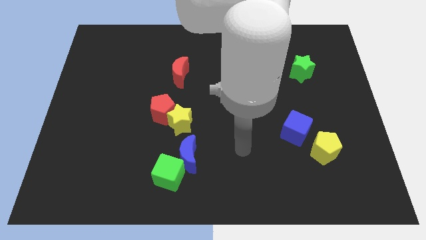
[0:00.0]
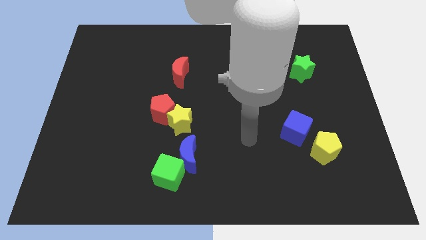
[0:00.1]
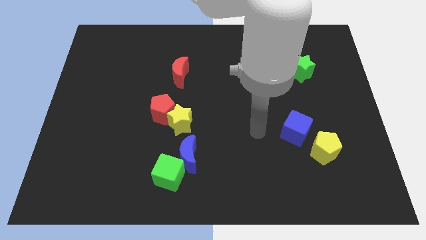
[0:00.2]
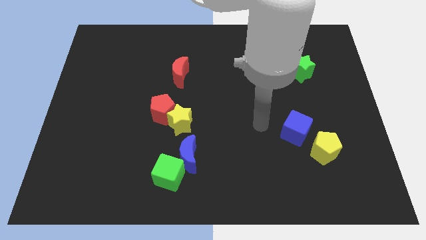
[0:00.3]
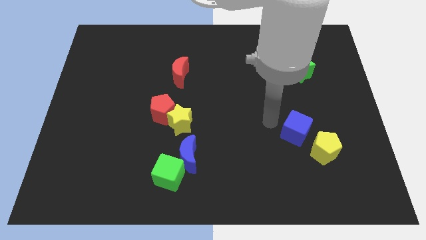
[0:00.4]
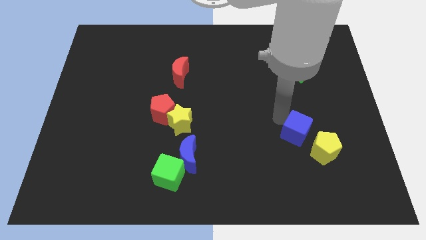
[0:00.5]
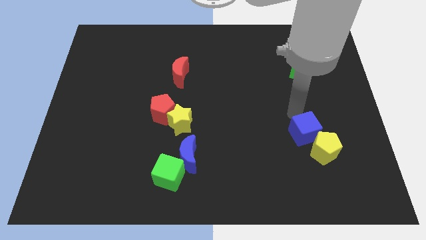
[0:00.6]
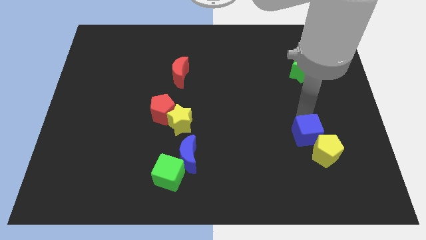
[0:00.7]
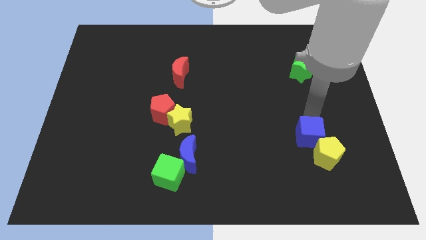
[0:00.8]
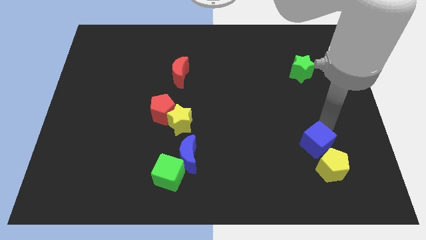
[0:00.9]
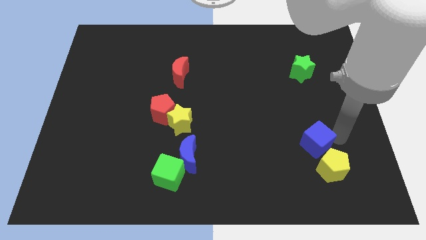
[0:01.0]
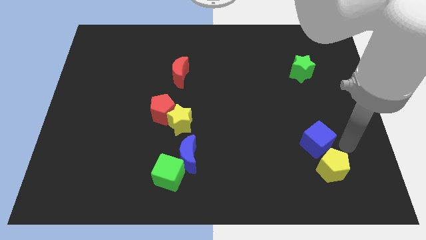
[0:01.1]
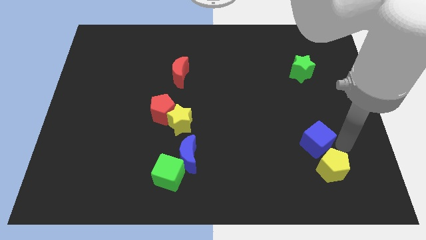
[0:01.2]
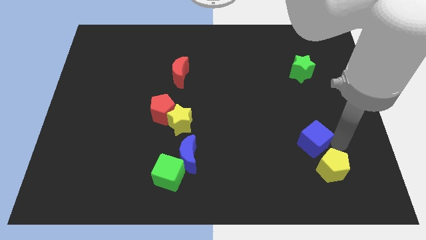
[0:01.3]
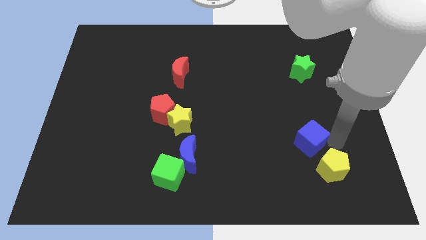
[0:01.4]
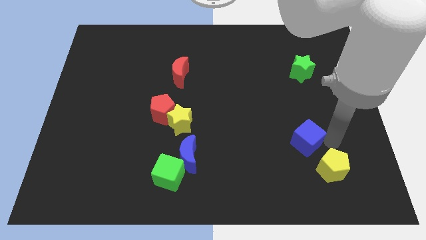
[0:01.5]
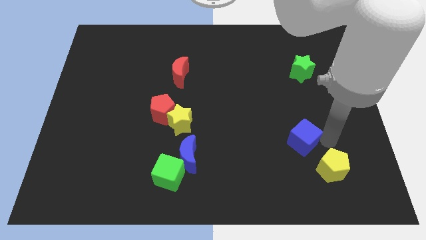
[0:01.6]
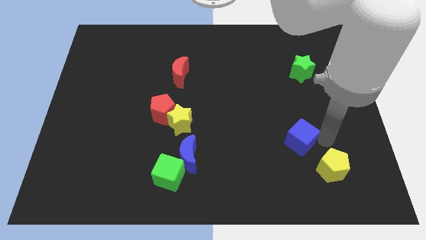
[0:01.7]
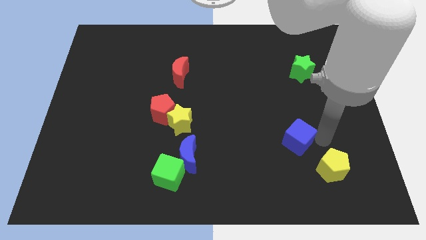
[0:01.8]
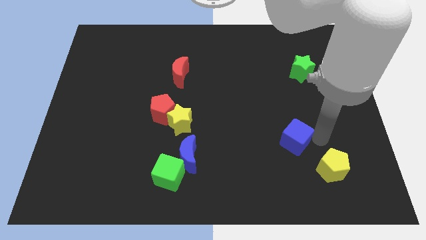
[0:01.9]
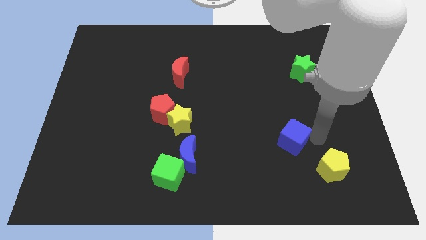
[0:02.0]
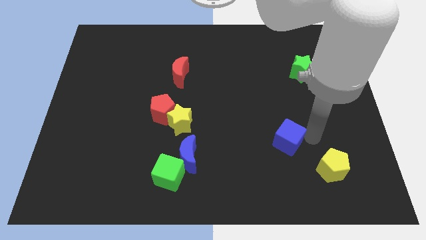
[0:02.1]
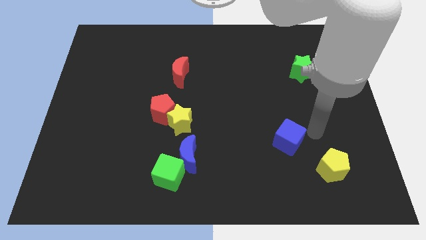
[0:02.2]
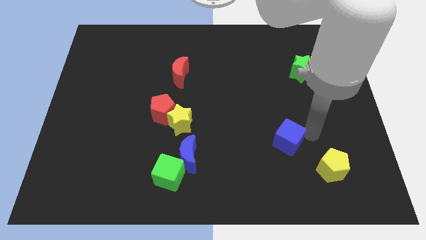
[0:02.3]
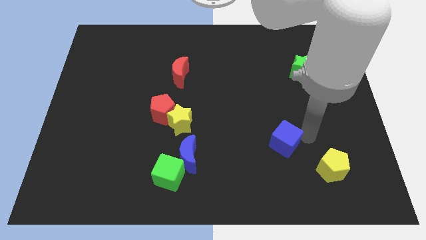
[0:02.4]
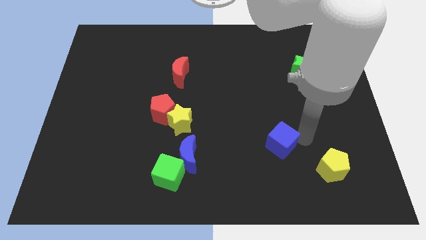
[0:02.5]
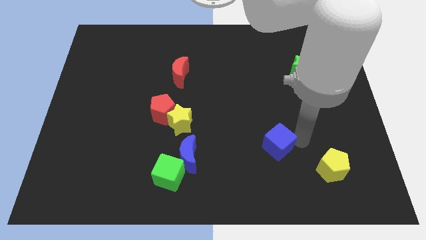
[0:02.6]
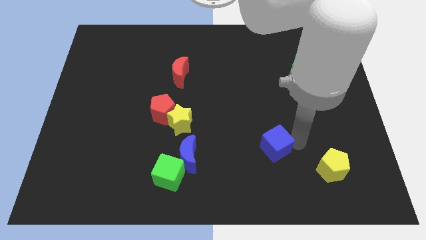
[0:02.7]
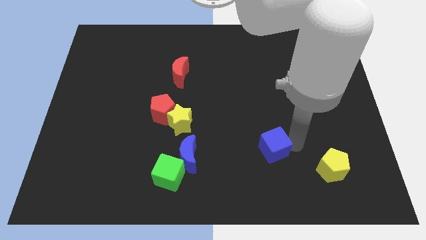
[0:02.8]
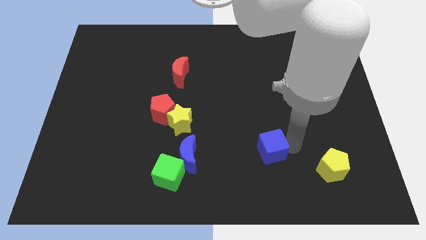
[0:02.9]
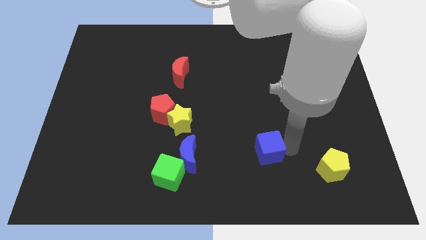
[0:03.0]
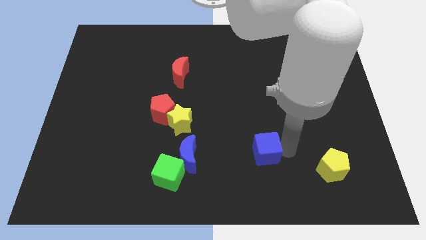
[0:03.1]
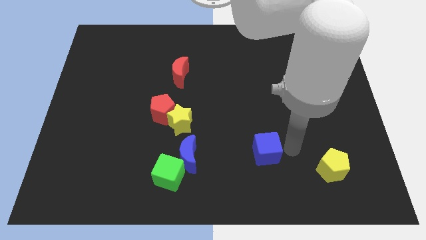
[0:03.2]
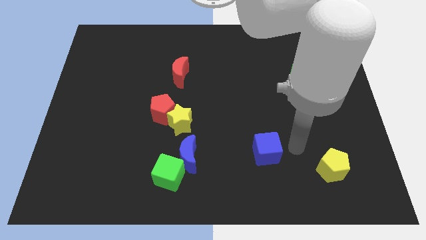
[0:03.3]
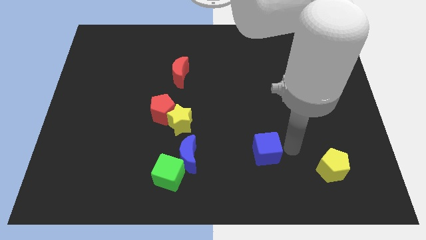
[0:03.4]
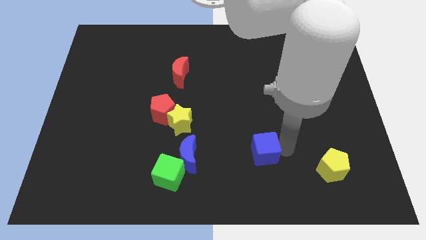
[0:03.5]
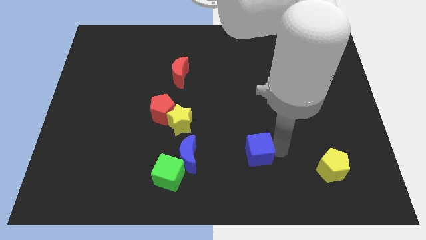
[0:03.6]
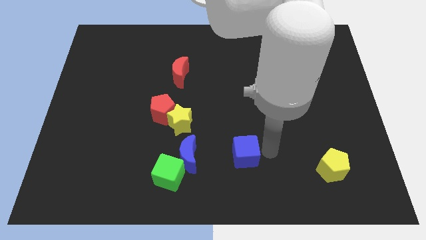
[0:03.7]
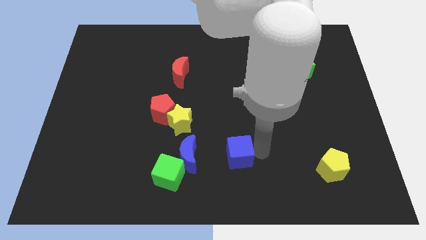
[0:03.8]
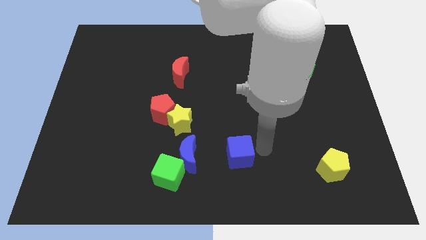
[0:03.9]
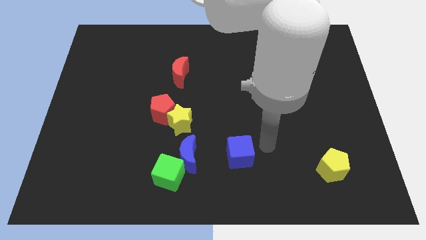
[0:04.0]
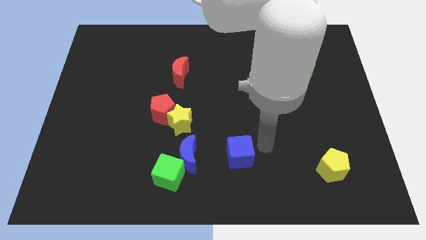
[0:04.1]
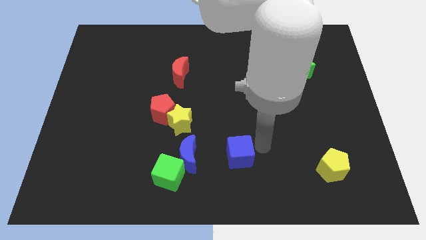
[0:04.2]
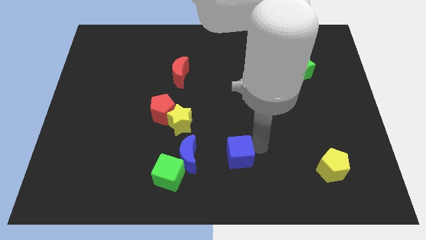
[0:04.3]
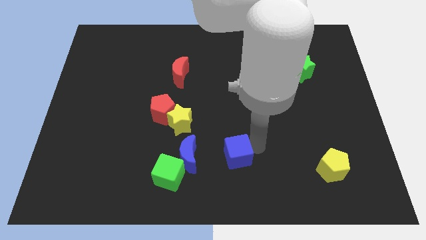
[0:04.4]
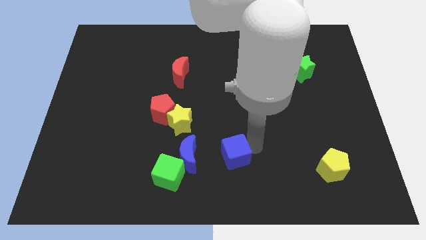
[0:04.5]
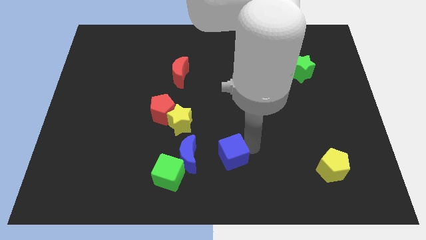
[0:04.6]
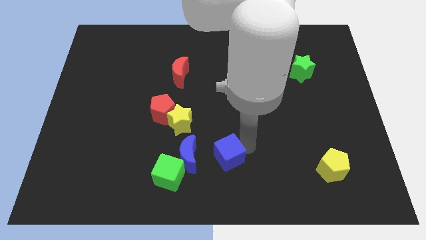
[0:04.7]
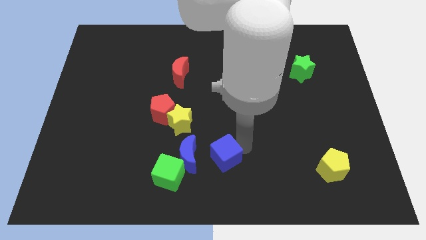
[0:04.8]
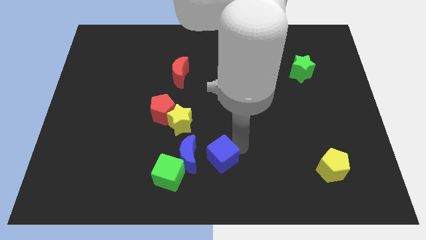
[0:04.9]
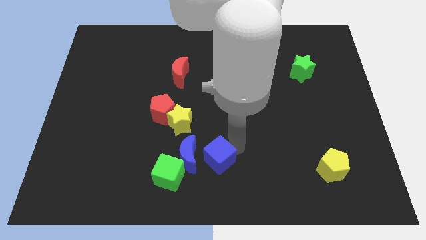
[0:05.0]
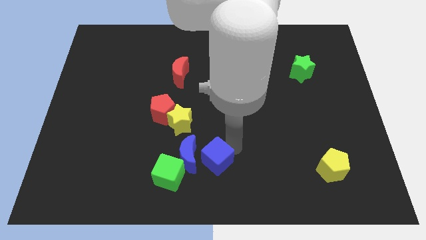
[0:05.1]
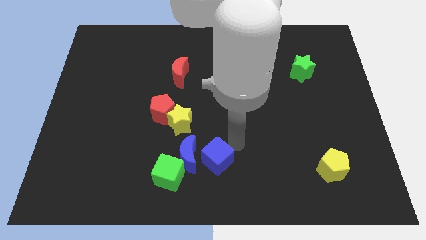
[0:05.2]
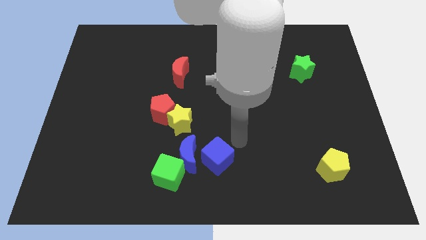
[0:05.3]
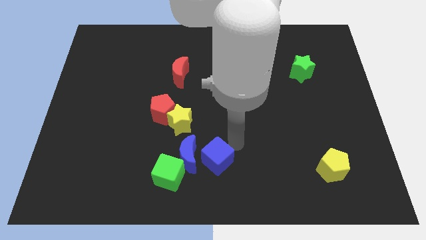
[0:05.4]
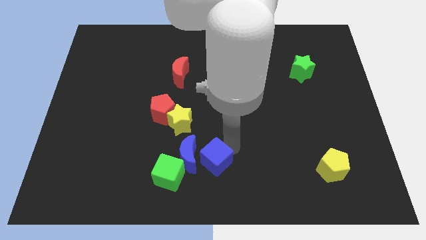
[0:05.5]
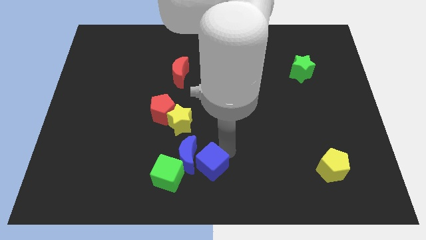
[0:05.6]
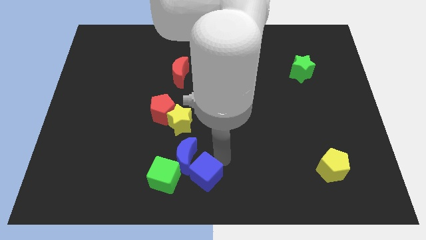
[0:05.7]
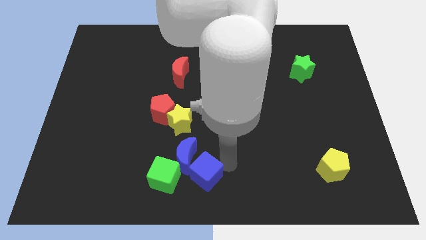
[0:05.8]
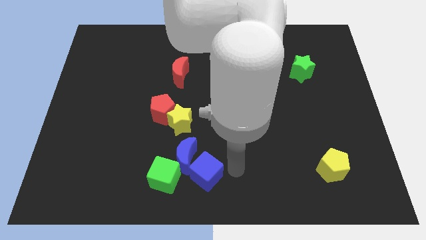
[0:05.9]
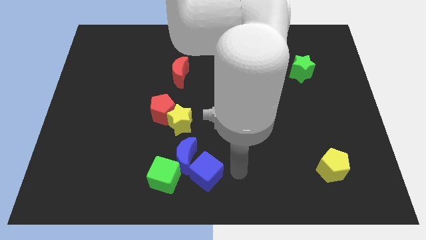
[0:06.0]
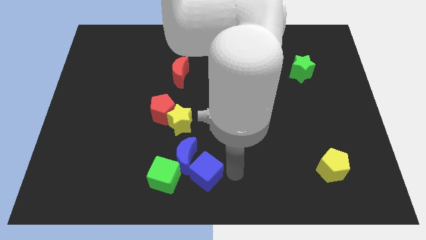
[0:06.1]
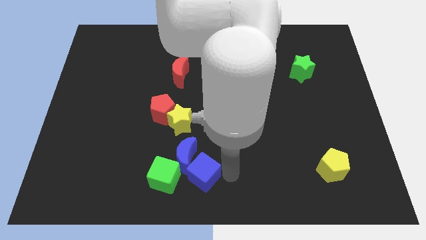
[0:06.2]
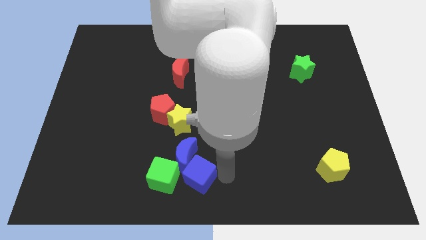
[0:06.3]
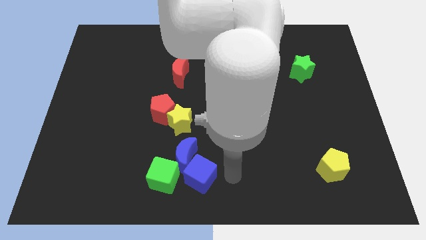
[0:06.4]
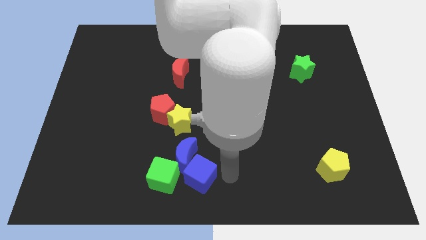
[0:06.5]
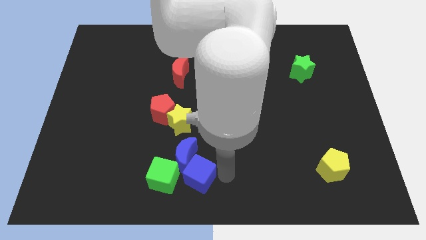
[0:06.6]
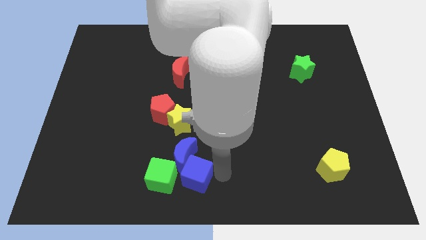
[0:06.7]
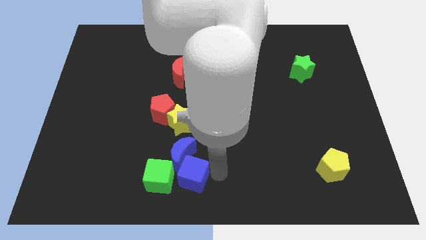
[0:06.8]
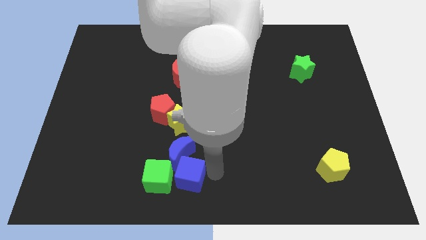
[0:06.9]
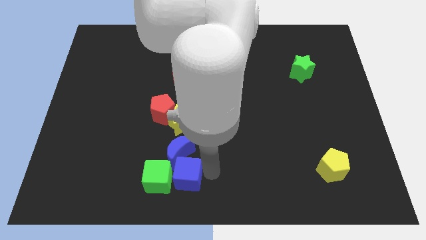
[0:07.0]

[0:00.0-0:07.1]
put the blue cube next to the green cube
